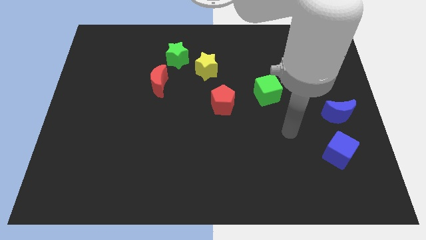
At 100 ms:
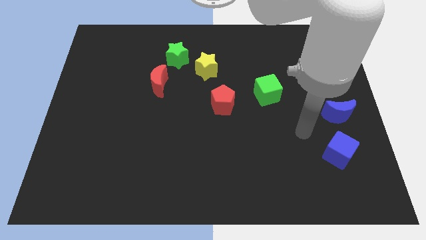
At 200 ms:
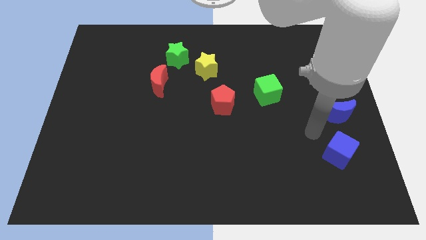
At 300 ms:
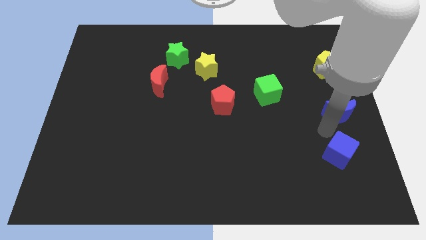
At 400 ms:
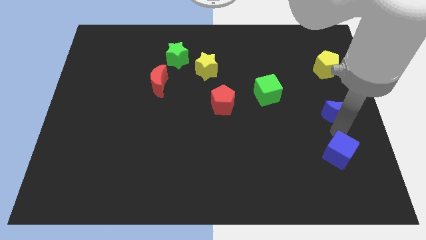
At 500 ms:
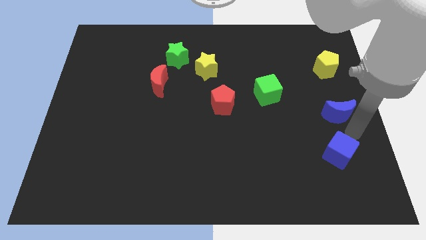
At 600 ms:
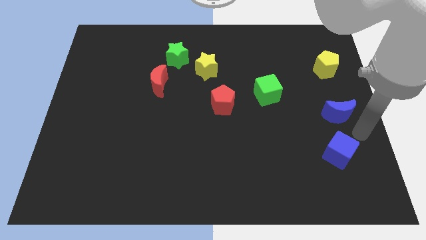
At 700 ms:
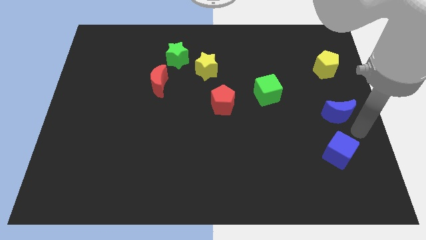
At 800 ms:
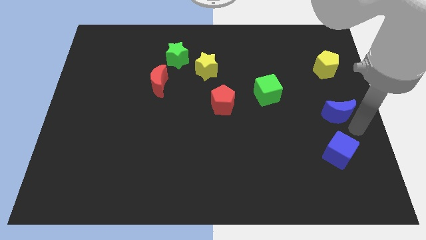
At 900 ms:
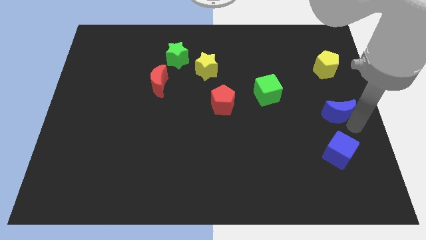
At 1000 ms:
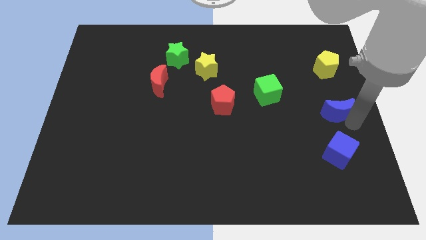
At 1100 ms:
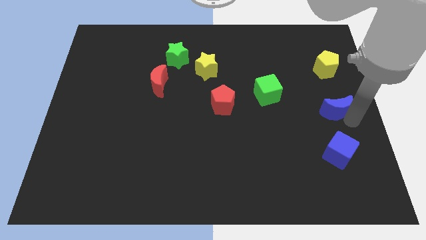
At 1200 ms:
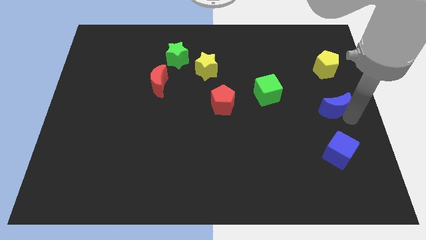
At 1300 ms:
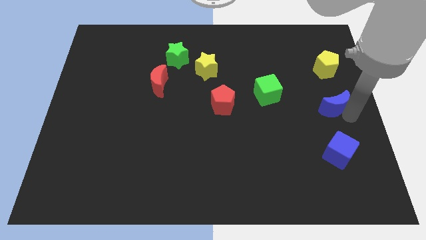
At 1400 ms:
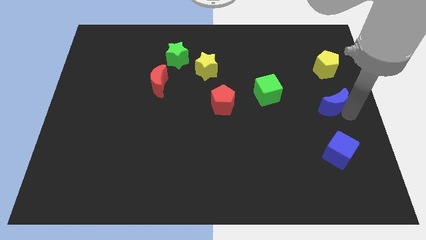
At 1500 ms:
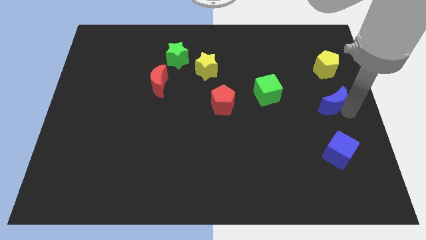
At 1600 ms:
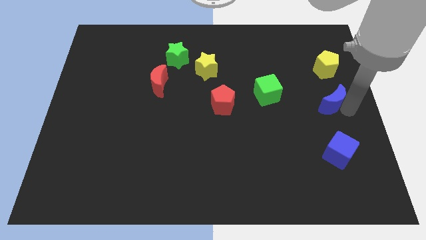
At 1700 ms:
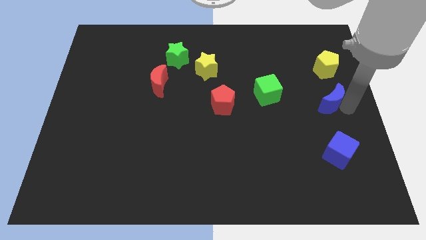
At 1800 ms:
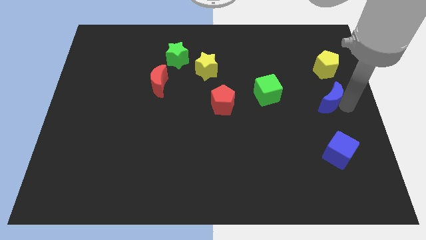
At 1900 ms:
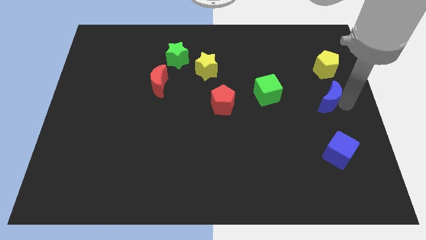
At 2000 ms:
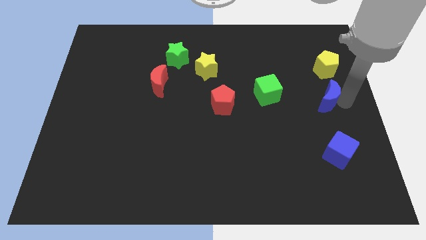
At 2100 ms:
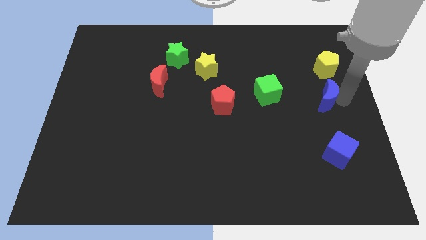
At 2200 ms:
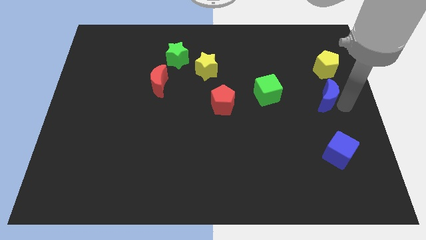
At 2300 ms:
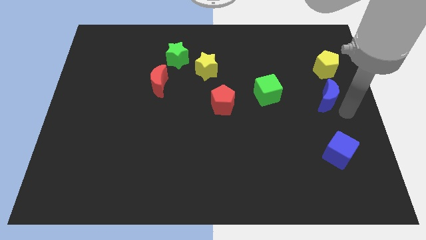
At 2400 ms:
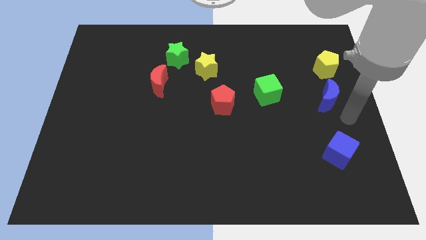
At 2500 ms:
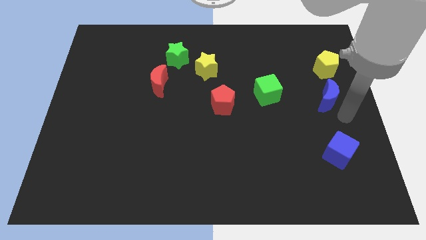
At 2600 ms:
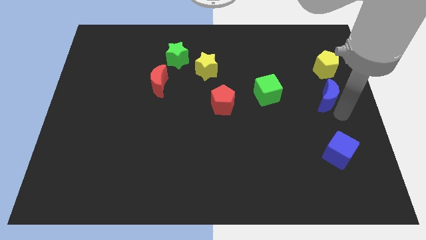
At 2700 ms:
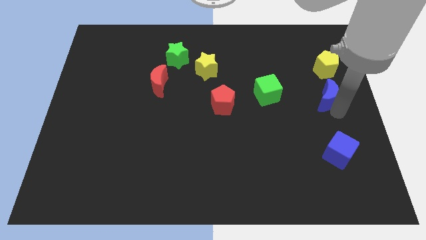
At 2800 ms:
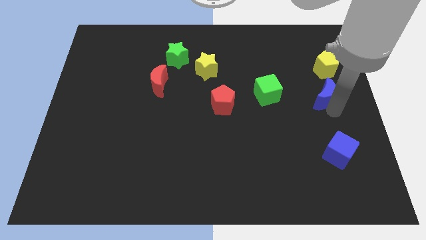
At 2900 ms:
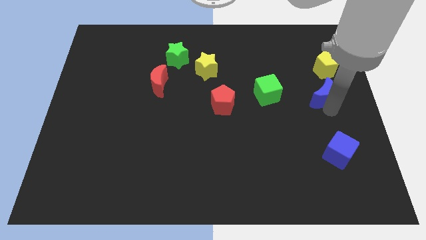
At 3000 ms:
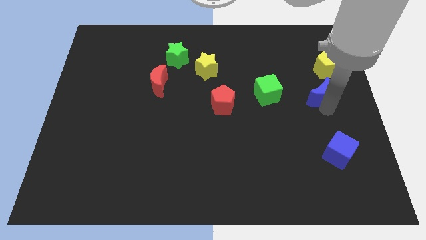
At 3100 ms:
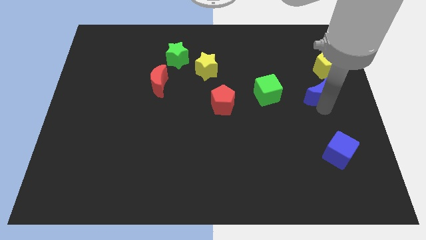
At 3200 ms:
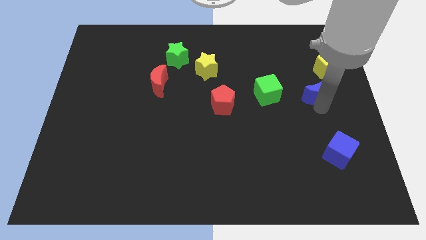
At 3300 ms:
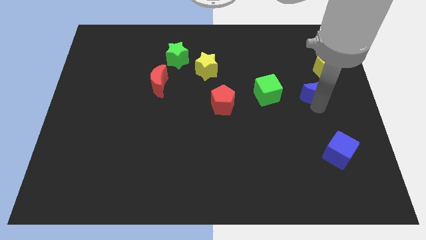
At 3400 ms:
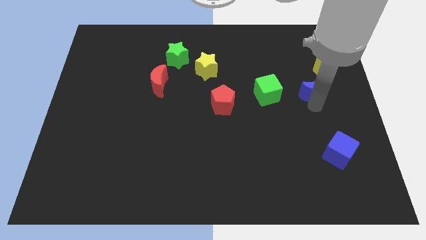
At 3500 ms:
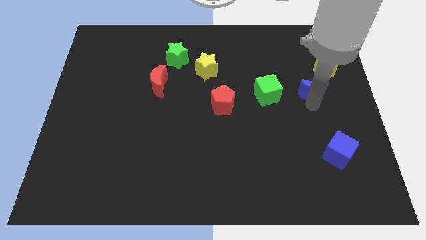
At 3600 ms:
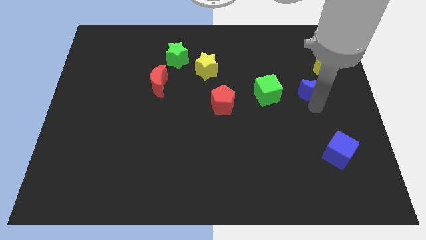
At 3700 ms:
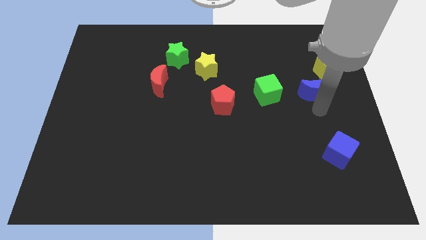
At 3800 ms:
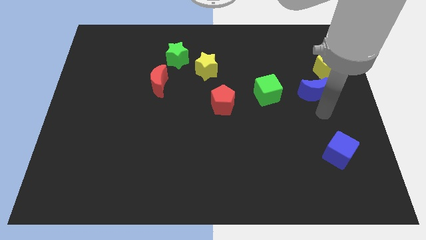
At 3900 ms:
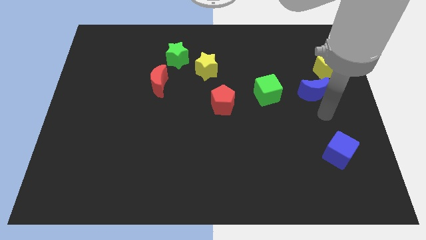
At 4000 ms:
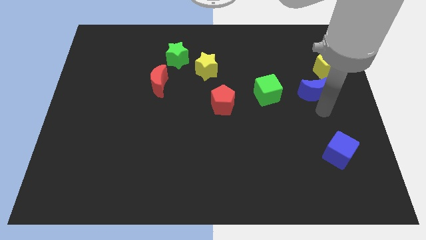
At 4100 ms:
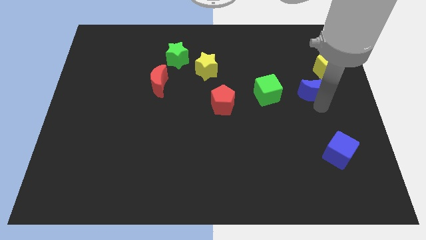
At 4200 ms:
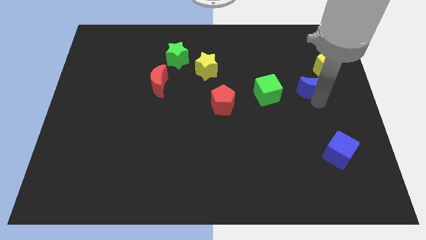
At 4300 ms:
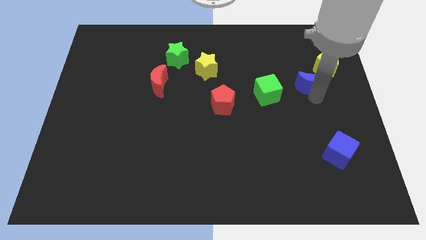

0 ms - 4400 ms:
move the blue moon a bit up

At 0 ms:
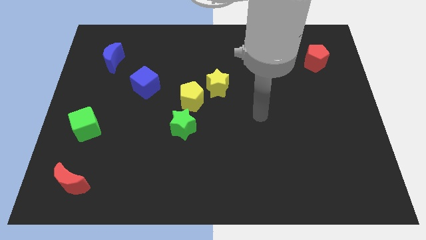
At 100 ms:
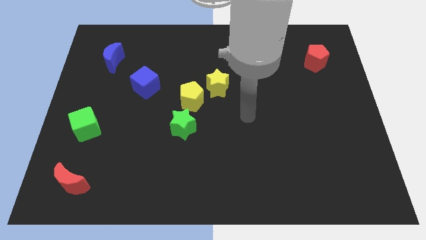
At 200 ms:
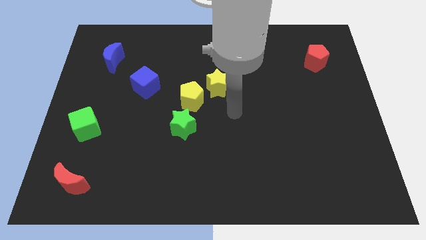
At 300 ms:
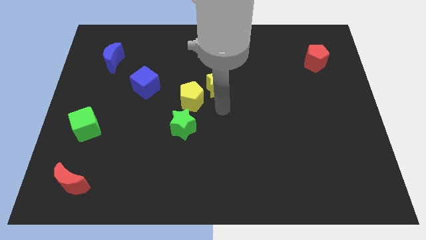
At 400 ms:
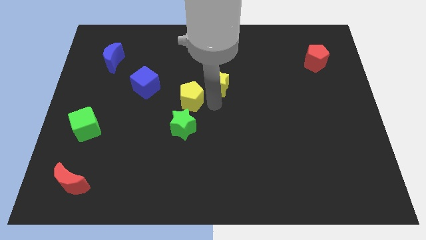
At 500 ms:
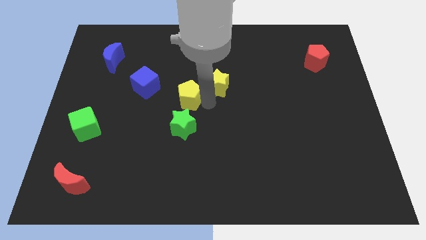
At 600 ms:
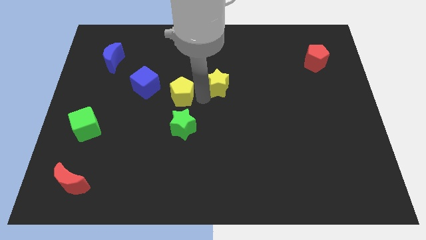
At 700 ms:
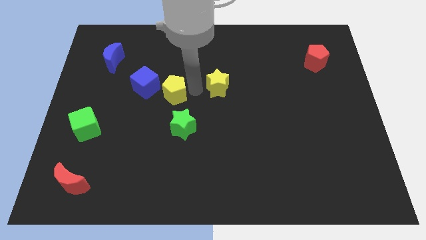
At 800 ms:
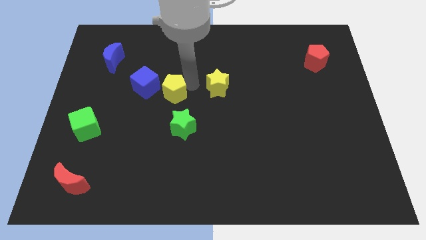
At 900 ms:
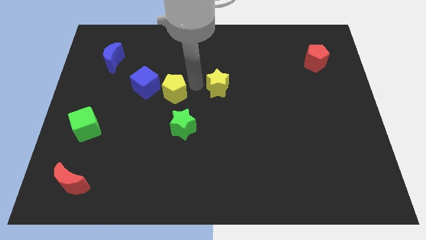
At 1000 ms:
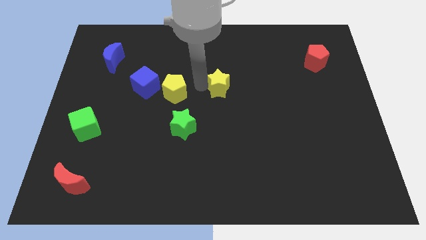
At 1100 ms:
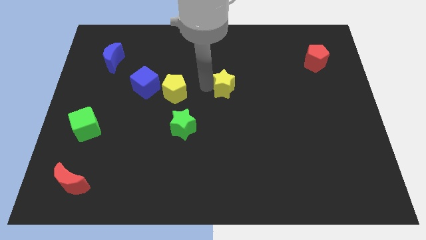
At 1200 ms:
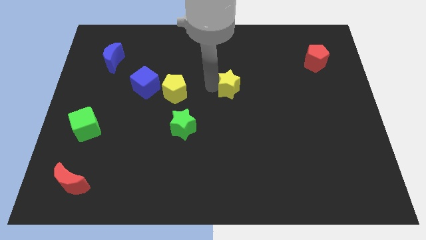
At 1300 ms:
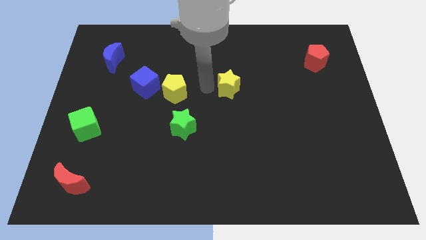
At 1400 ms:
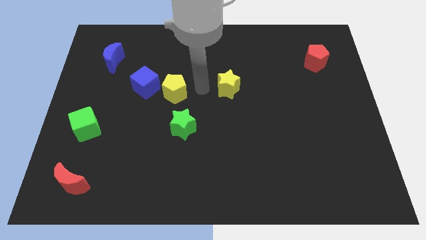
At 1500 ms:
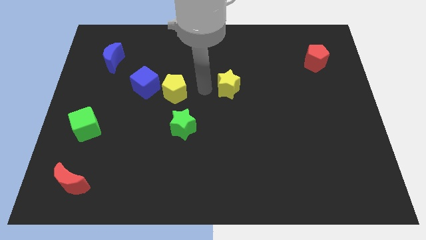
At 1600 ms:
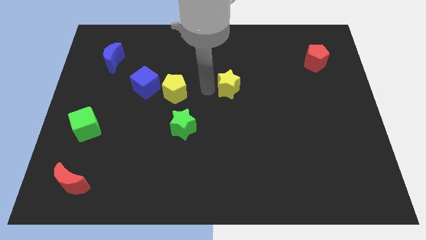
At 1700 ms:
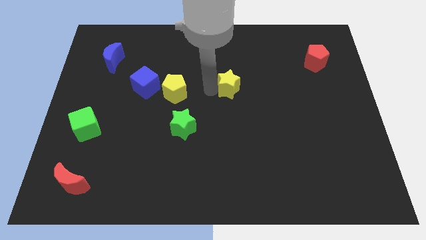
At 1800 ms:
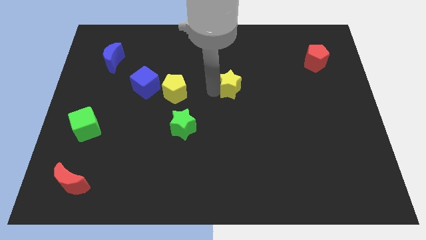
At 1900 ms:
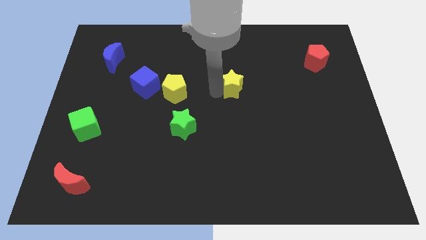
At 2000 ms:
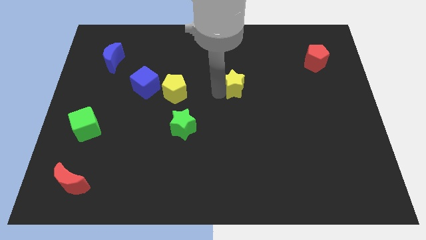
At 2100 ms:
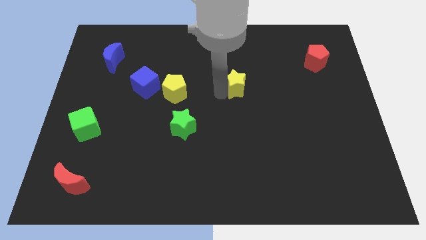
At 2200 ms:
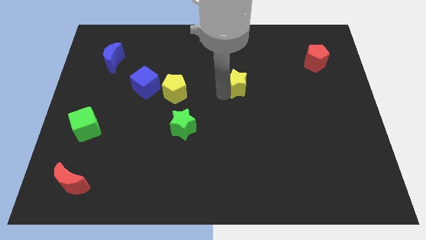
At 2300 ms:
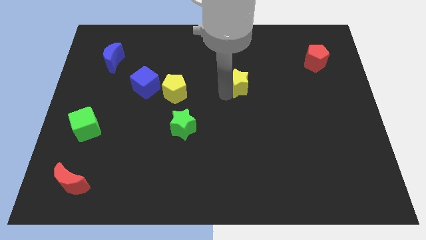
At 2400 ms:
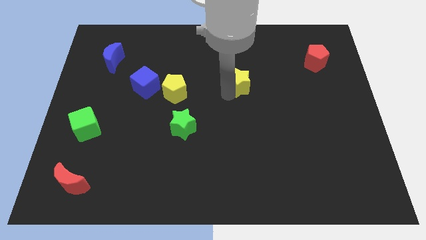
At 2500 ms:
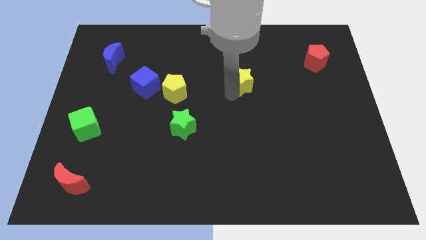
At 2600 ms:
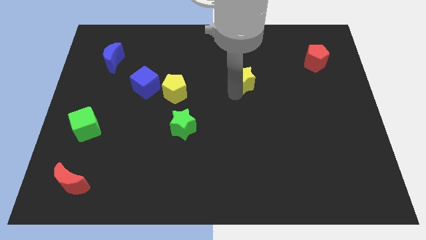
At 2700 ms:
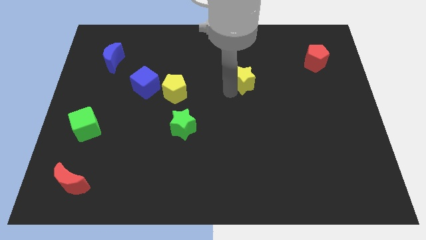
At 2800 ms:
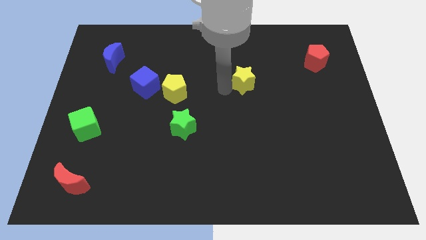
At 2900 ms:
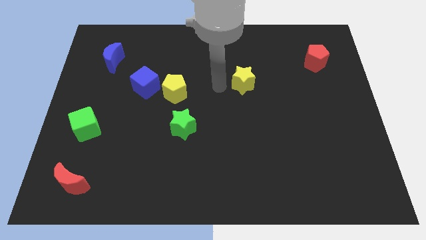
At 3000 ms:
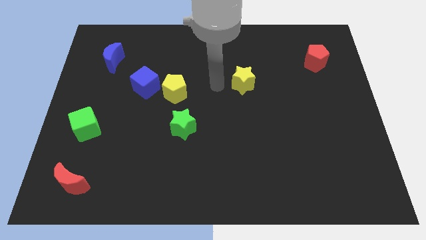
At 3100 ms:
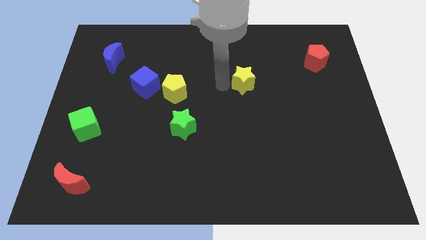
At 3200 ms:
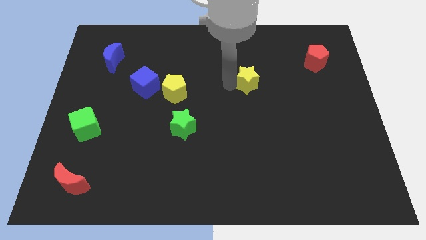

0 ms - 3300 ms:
push the yellow star somewhat right

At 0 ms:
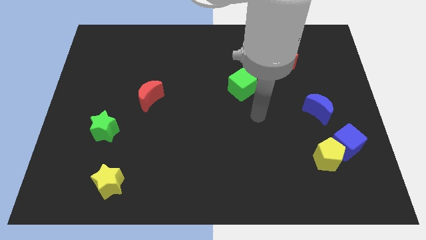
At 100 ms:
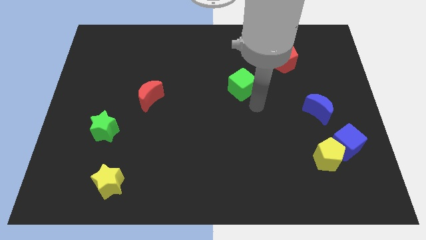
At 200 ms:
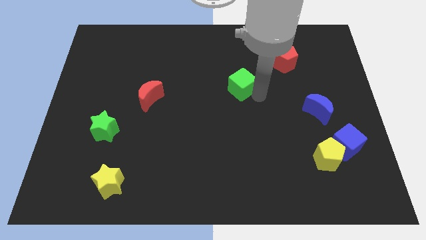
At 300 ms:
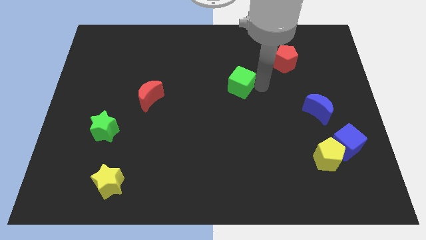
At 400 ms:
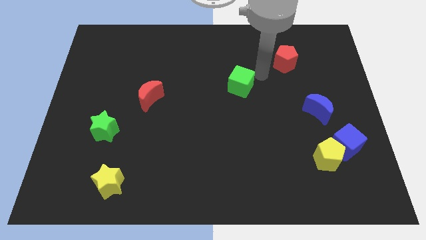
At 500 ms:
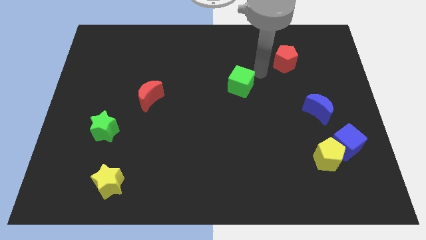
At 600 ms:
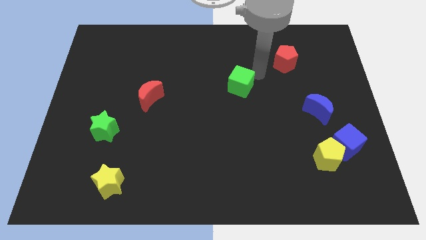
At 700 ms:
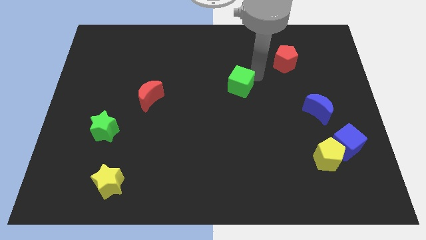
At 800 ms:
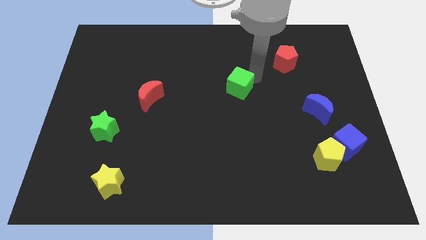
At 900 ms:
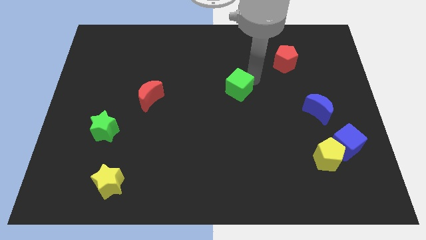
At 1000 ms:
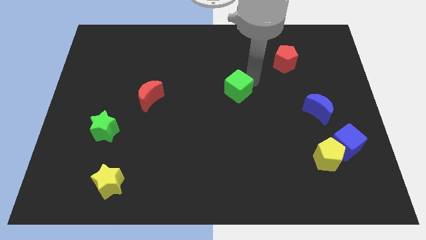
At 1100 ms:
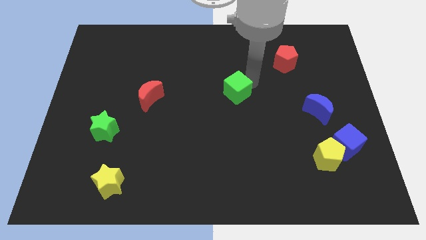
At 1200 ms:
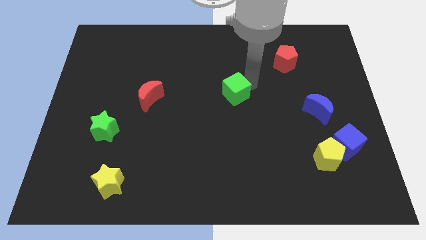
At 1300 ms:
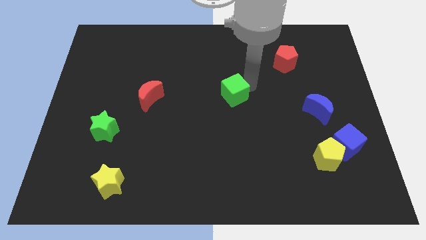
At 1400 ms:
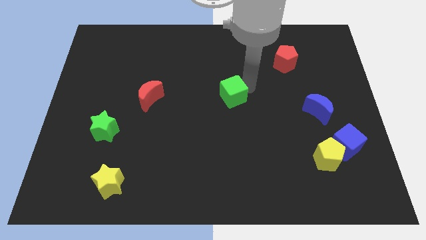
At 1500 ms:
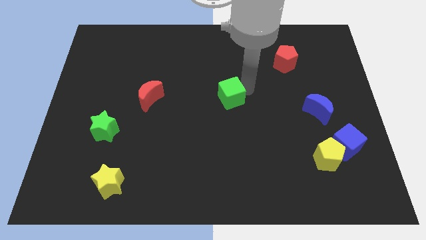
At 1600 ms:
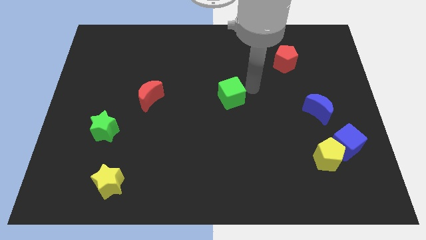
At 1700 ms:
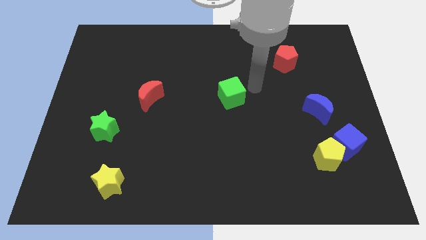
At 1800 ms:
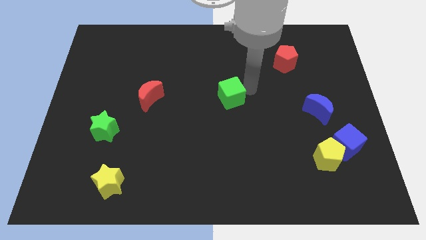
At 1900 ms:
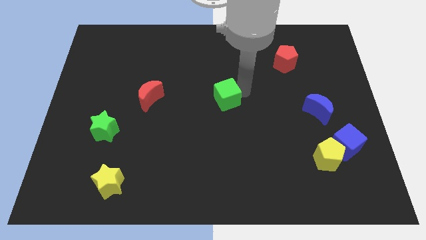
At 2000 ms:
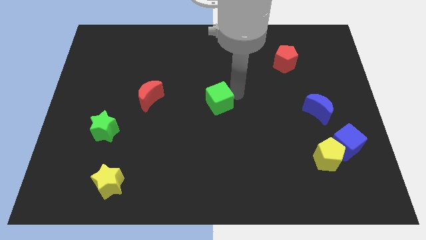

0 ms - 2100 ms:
push the green cube slightly downwards and left
